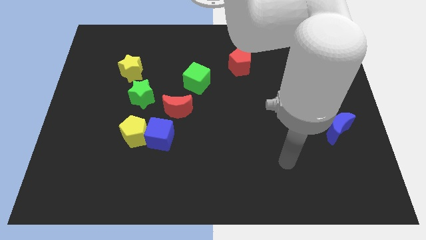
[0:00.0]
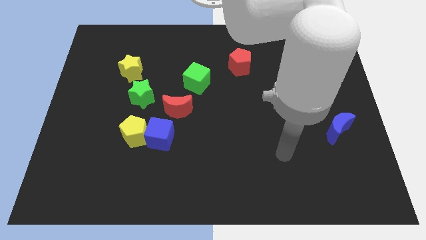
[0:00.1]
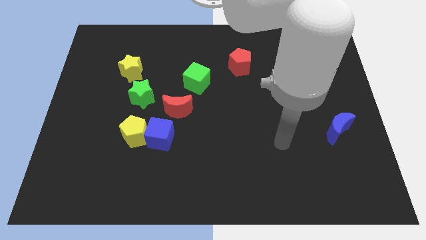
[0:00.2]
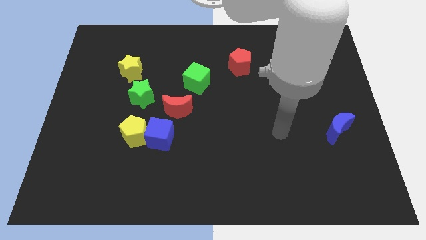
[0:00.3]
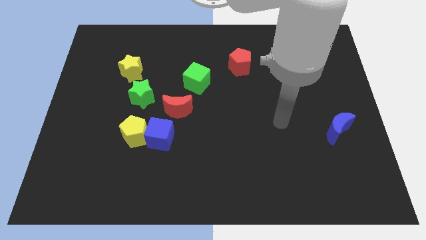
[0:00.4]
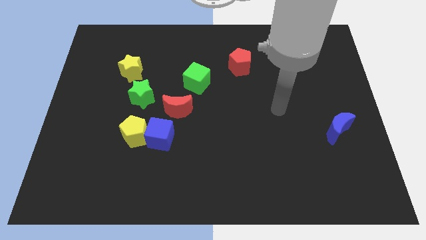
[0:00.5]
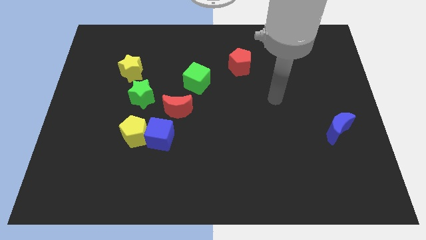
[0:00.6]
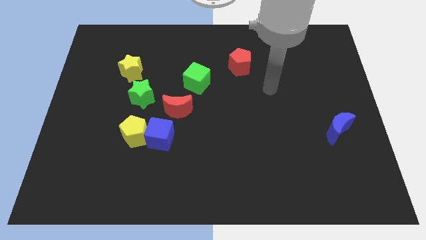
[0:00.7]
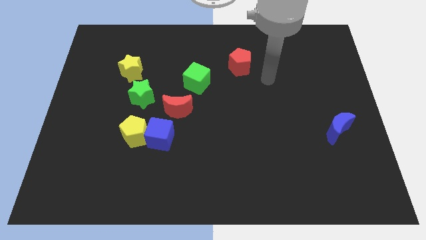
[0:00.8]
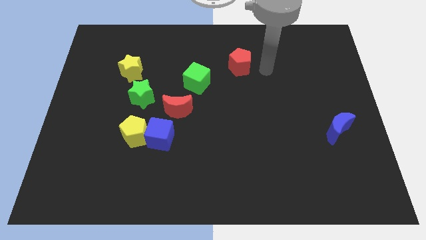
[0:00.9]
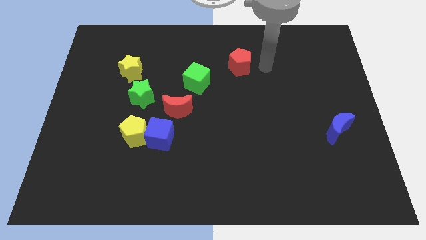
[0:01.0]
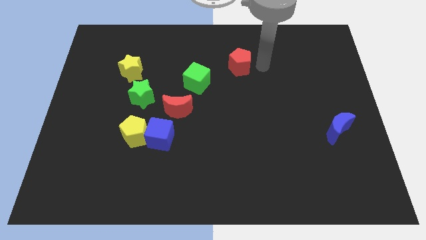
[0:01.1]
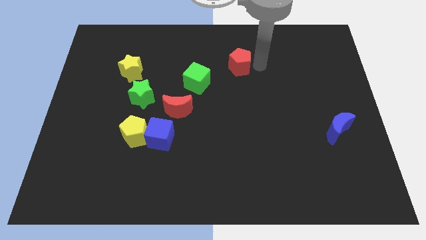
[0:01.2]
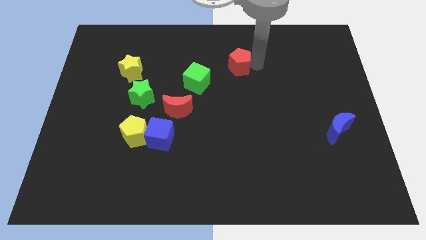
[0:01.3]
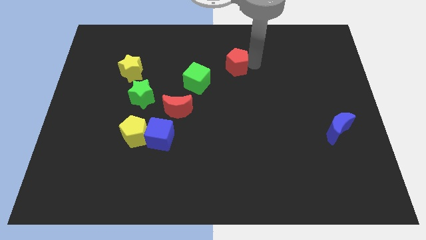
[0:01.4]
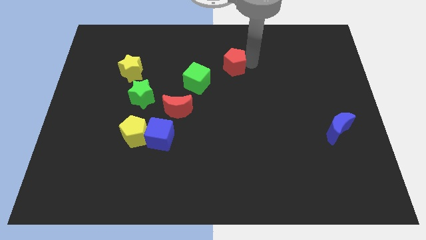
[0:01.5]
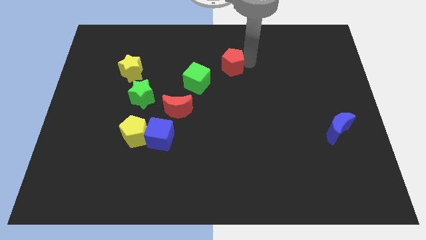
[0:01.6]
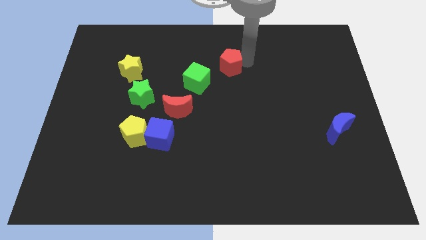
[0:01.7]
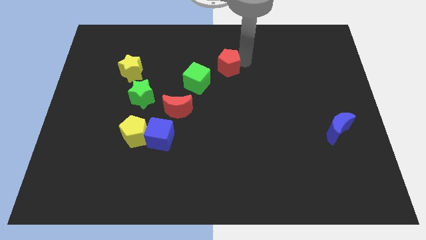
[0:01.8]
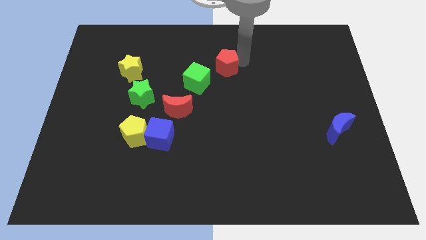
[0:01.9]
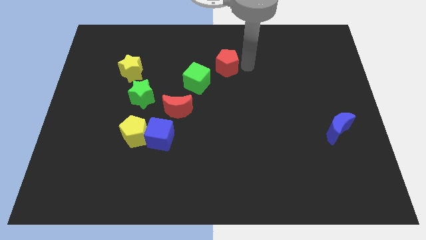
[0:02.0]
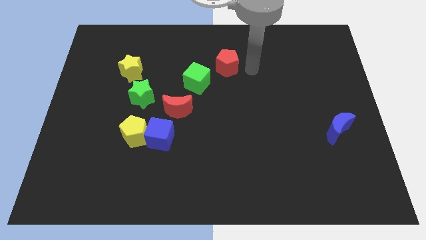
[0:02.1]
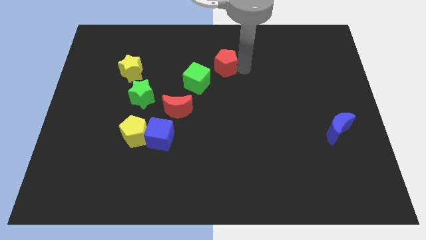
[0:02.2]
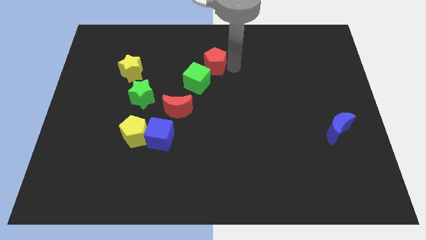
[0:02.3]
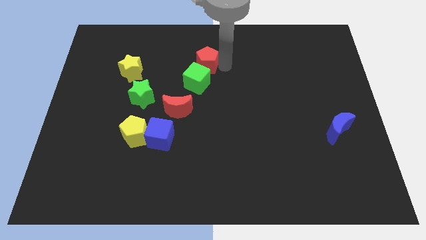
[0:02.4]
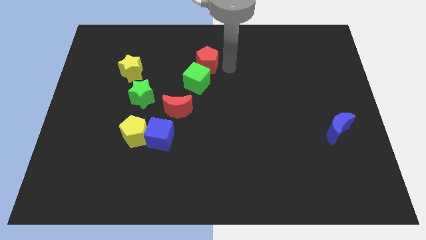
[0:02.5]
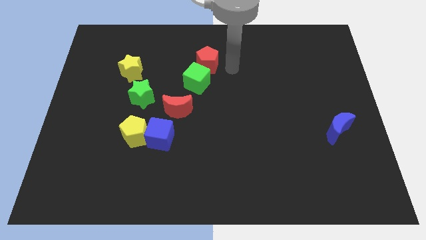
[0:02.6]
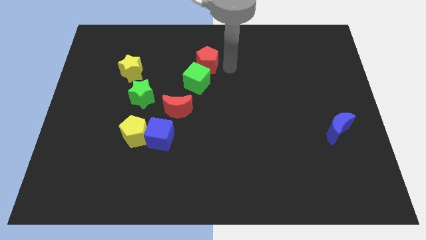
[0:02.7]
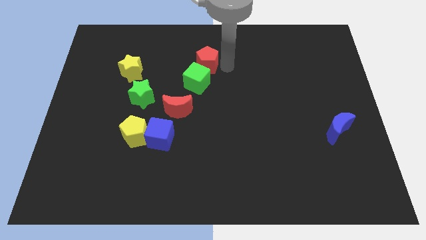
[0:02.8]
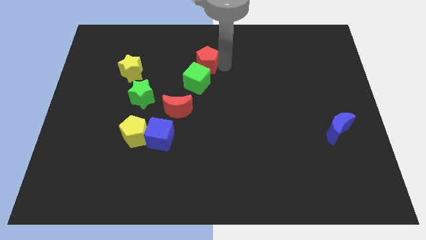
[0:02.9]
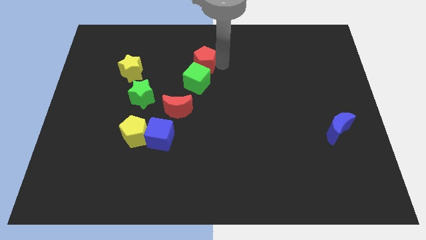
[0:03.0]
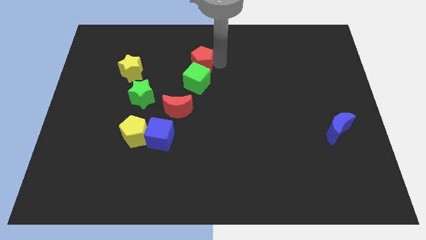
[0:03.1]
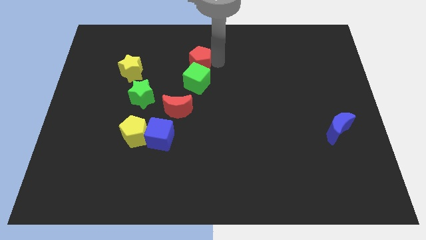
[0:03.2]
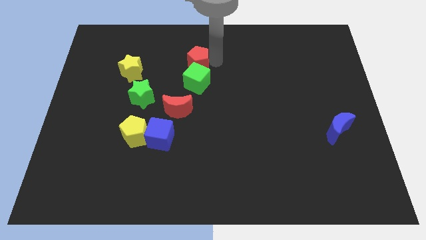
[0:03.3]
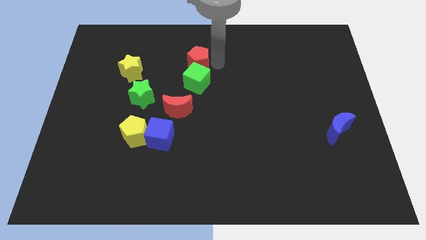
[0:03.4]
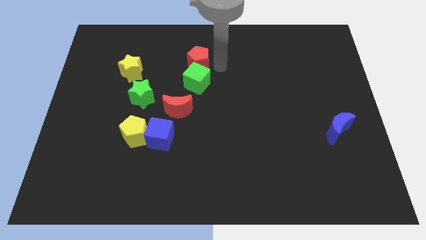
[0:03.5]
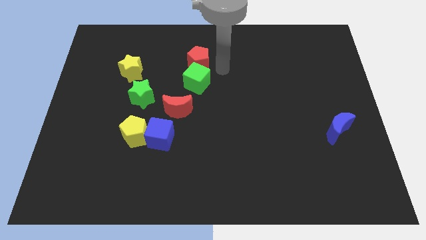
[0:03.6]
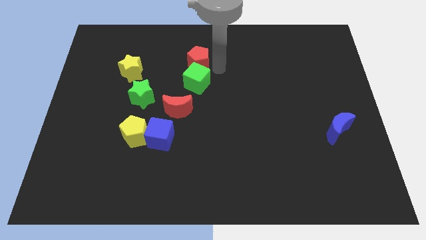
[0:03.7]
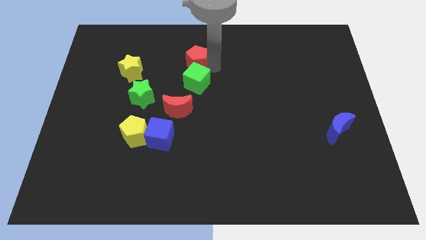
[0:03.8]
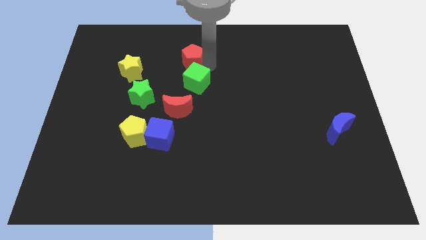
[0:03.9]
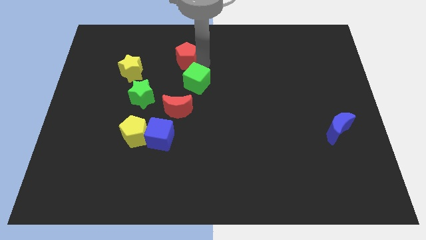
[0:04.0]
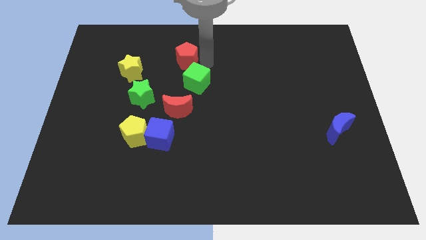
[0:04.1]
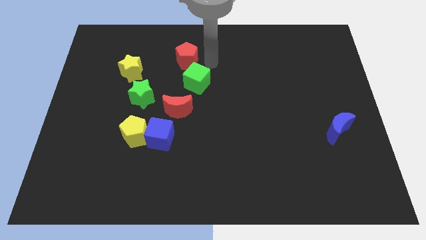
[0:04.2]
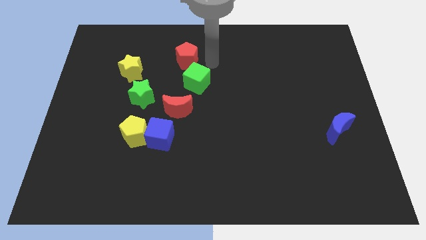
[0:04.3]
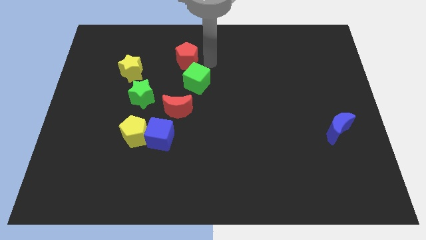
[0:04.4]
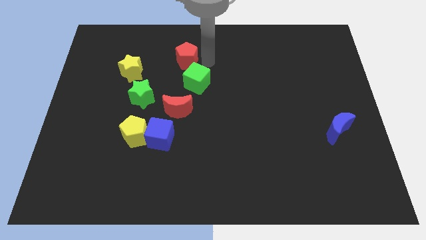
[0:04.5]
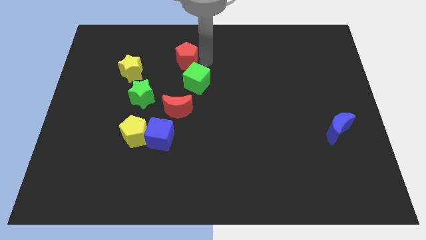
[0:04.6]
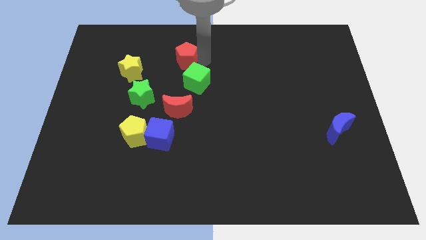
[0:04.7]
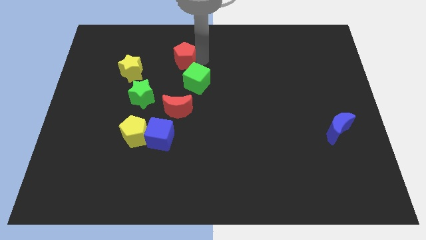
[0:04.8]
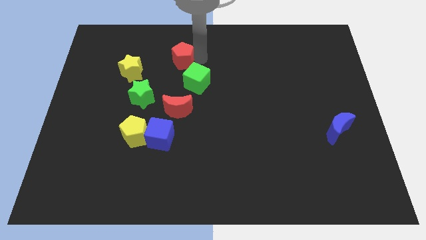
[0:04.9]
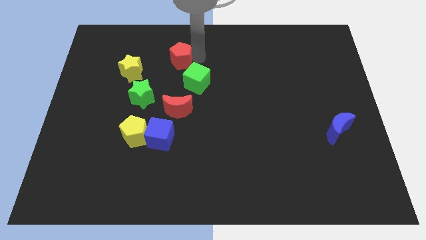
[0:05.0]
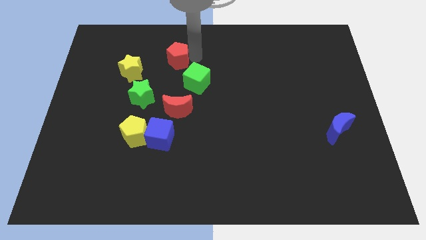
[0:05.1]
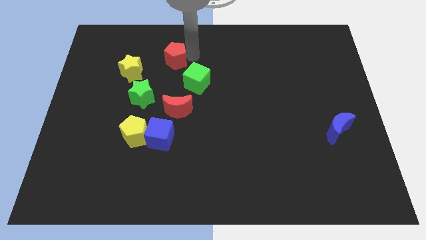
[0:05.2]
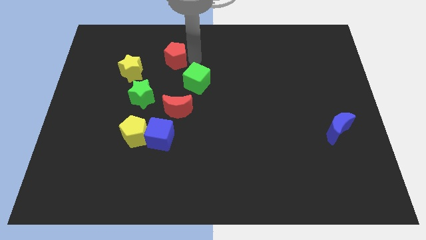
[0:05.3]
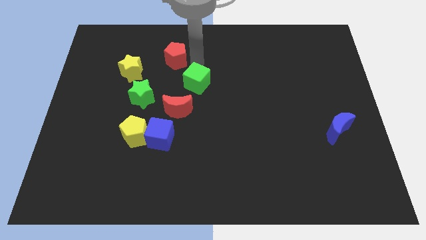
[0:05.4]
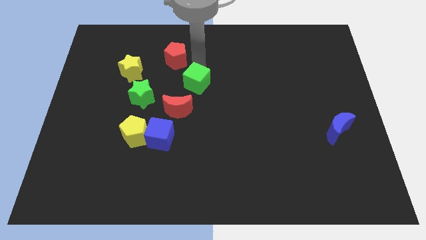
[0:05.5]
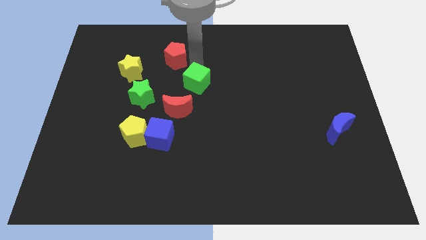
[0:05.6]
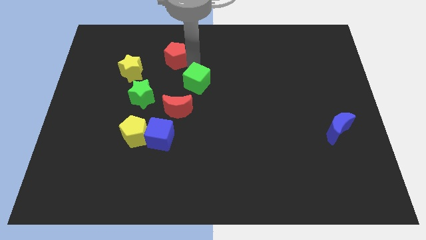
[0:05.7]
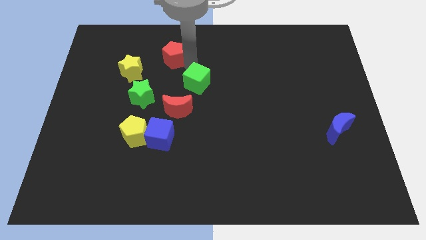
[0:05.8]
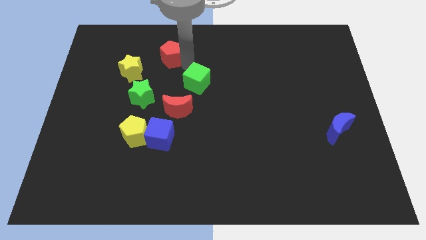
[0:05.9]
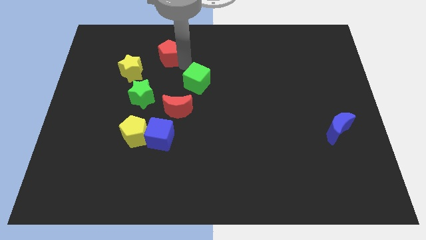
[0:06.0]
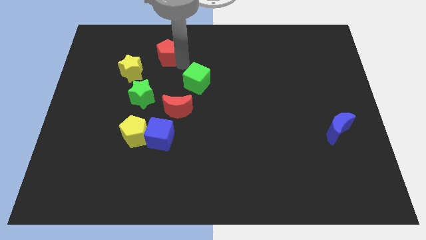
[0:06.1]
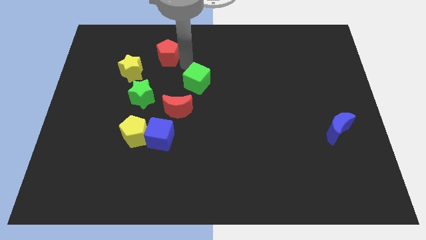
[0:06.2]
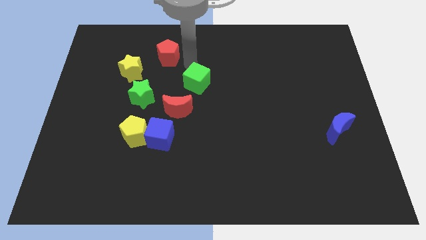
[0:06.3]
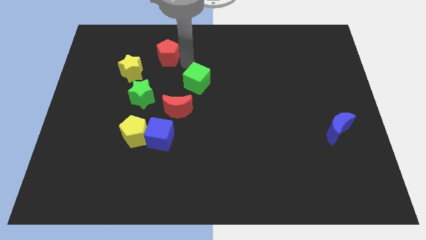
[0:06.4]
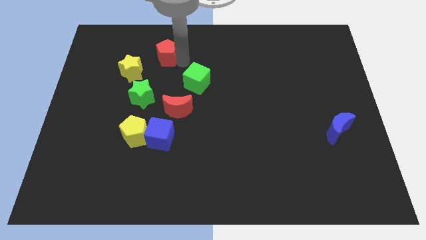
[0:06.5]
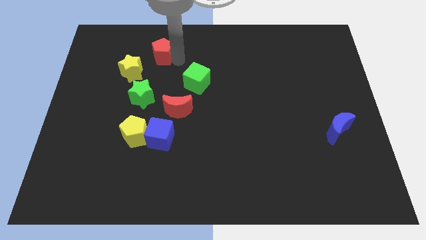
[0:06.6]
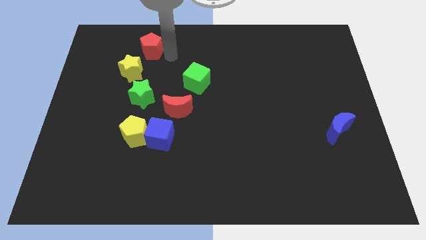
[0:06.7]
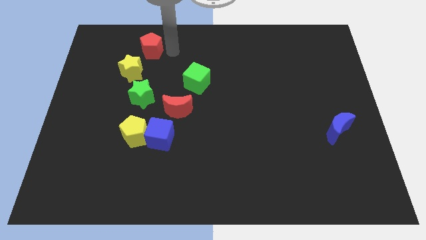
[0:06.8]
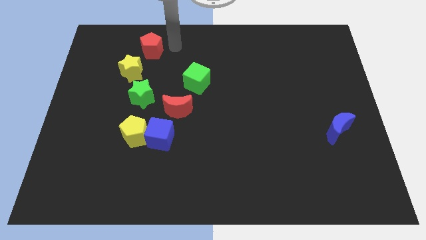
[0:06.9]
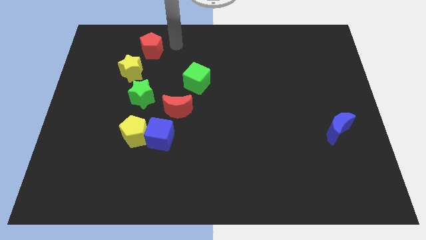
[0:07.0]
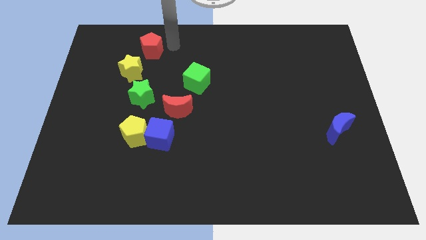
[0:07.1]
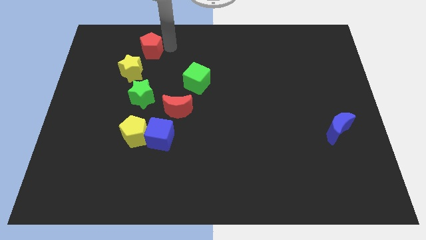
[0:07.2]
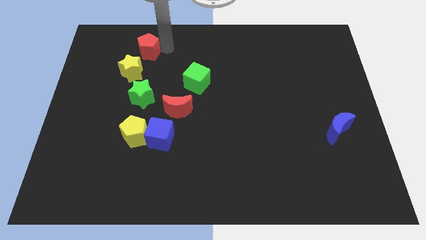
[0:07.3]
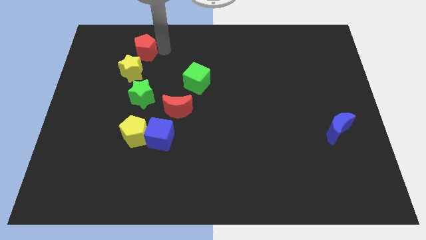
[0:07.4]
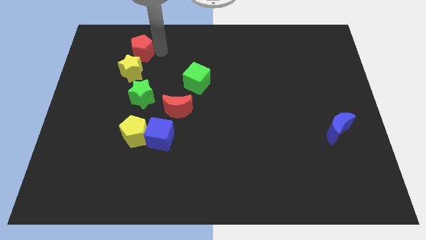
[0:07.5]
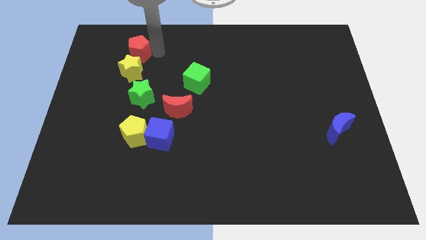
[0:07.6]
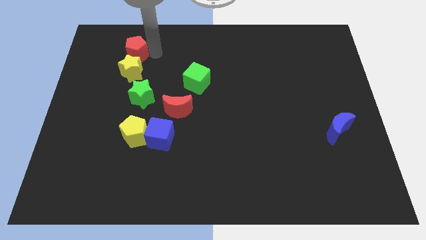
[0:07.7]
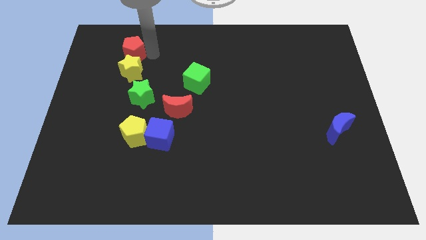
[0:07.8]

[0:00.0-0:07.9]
push the red pentagon diagonally up and to the left of the yellow star

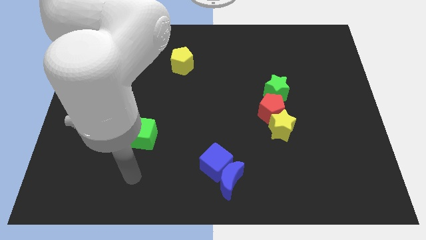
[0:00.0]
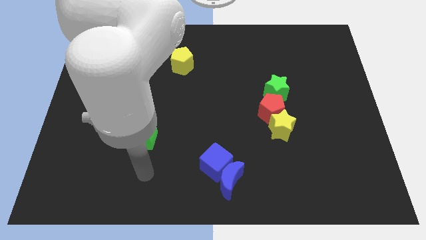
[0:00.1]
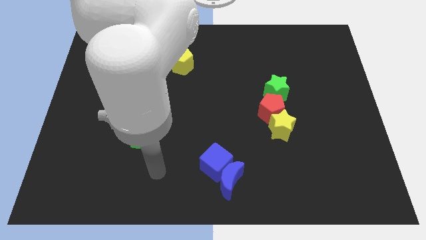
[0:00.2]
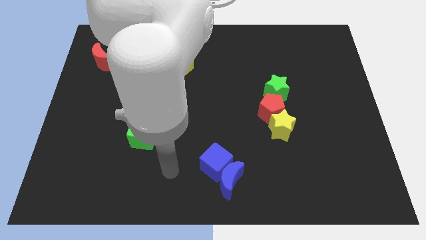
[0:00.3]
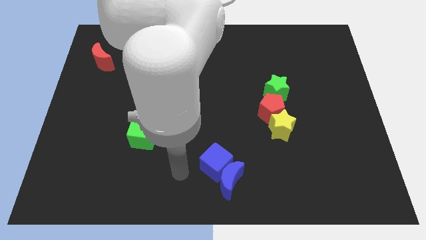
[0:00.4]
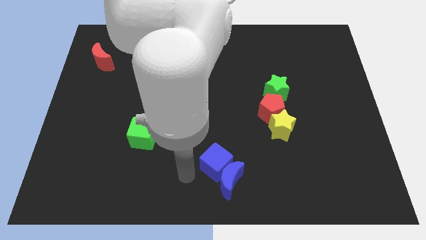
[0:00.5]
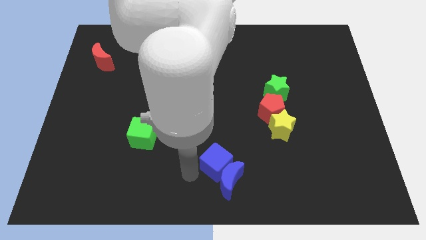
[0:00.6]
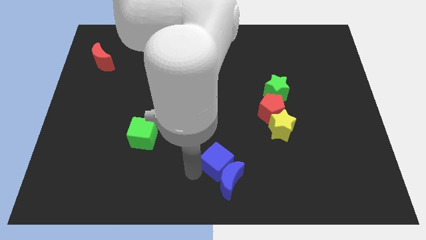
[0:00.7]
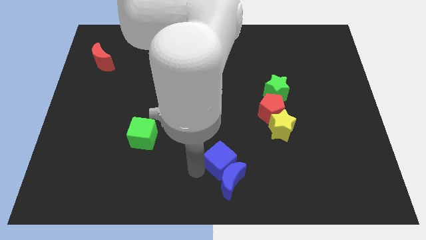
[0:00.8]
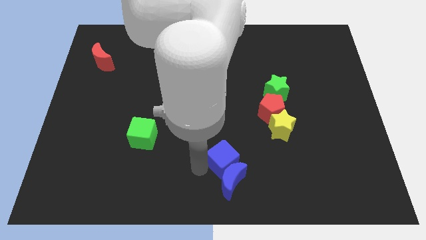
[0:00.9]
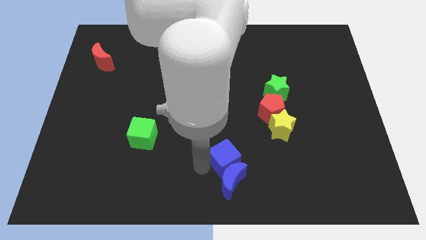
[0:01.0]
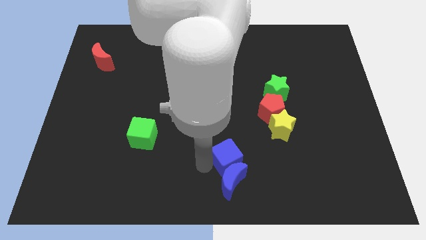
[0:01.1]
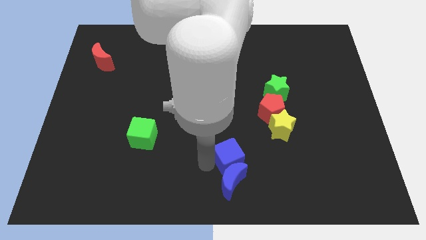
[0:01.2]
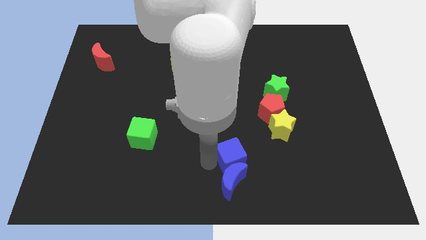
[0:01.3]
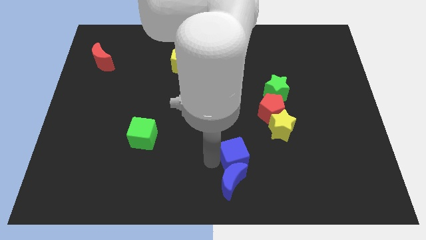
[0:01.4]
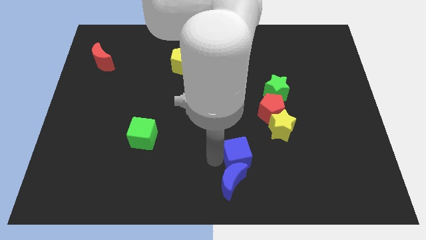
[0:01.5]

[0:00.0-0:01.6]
slide the blue cube diagonally down and to the left of the yellow star
